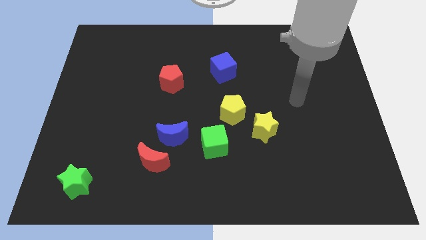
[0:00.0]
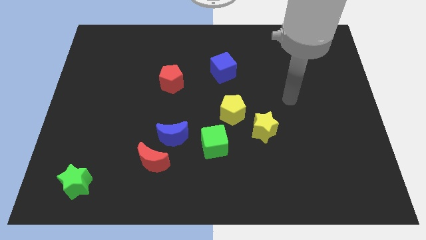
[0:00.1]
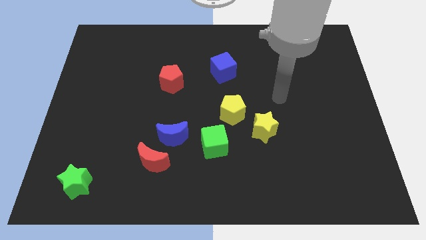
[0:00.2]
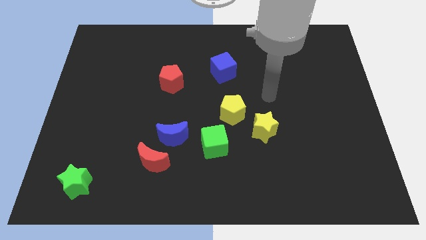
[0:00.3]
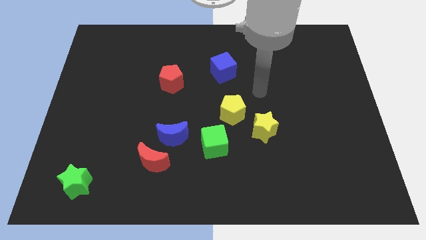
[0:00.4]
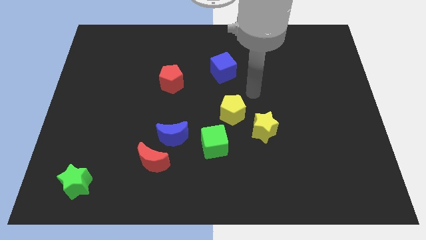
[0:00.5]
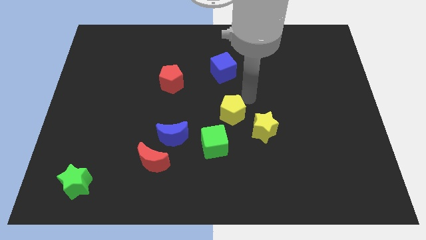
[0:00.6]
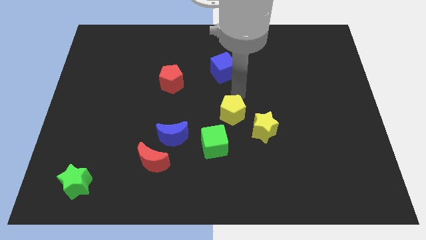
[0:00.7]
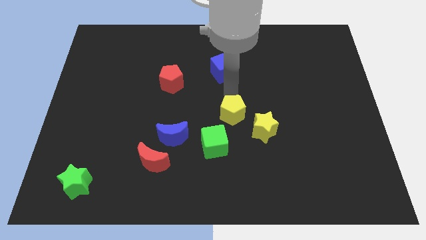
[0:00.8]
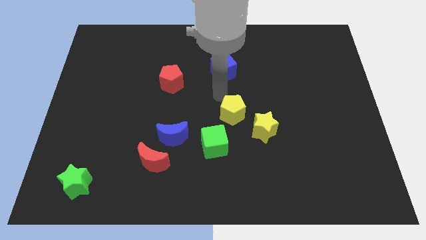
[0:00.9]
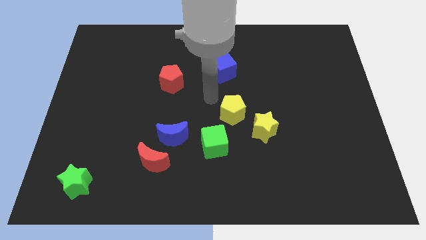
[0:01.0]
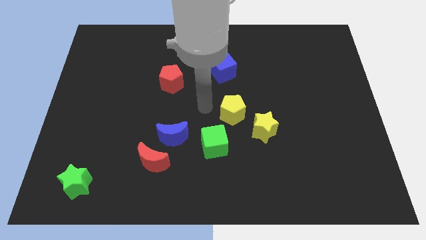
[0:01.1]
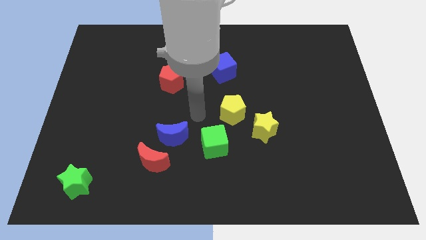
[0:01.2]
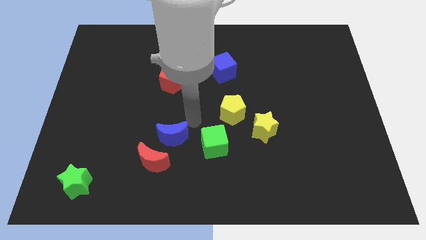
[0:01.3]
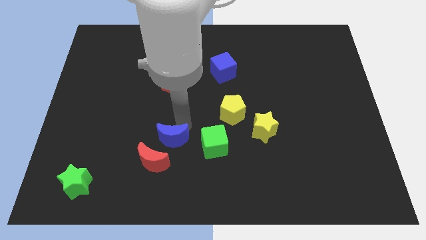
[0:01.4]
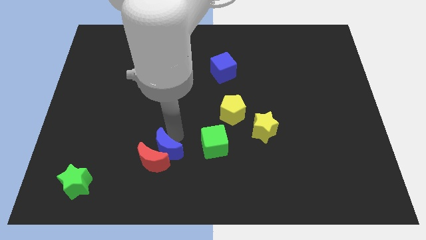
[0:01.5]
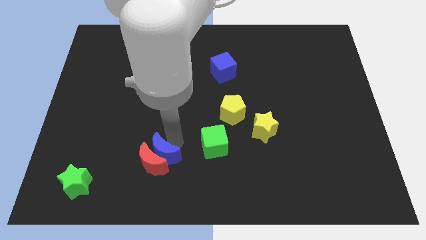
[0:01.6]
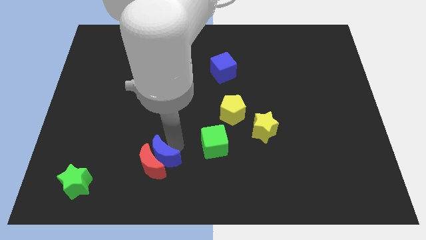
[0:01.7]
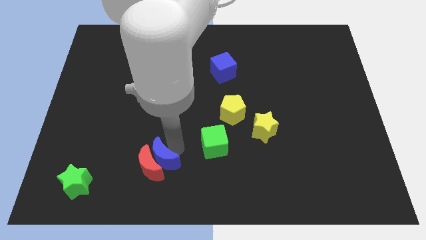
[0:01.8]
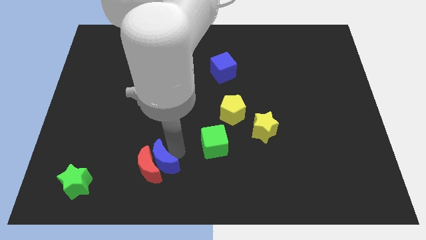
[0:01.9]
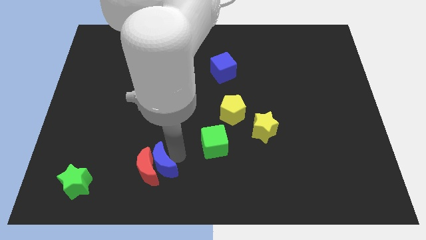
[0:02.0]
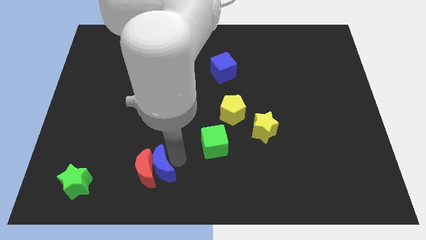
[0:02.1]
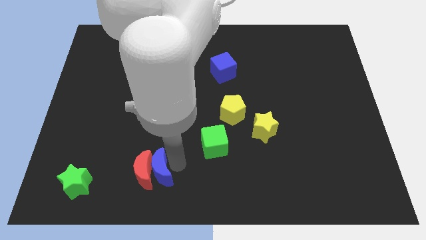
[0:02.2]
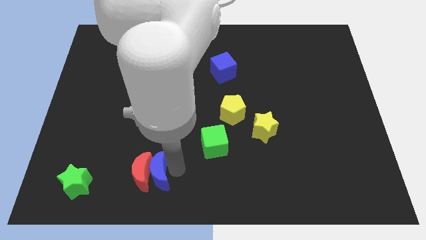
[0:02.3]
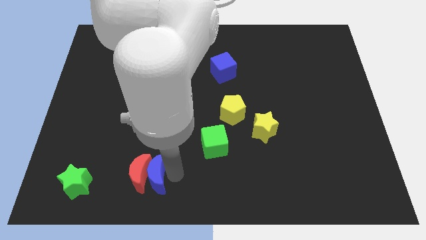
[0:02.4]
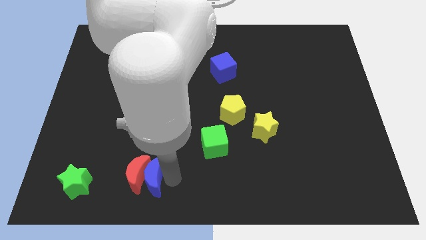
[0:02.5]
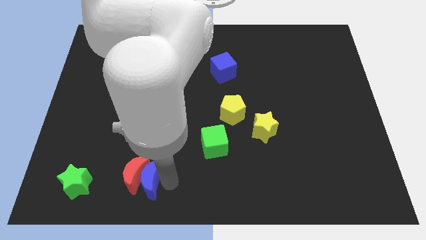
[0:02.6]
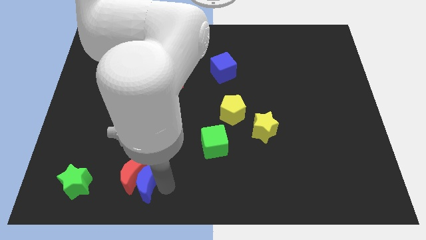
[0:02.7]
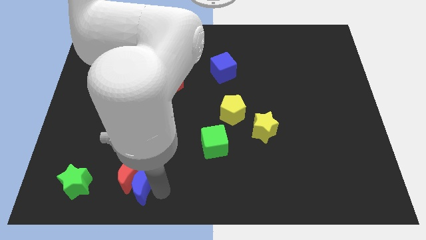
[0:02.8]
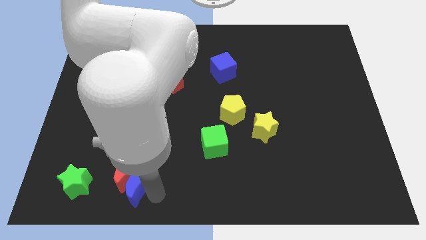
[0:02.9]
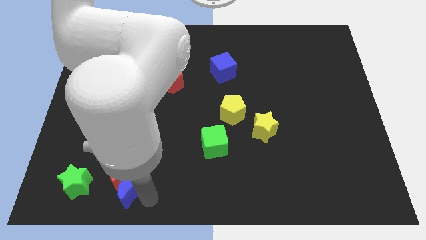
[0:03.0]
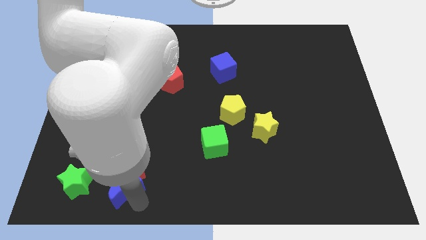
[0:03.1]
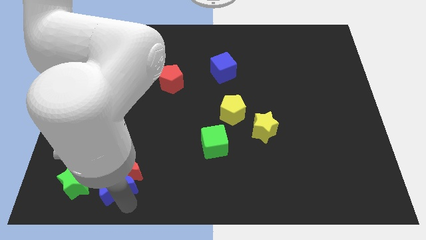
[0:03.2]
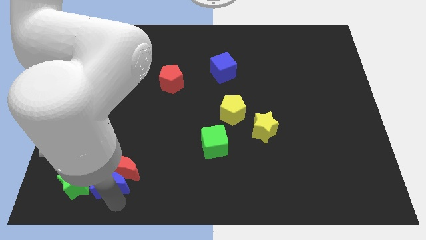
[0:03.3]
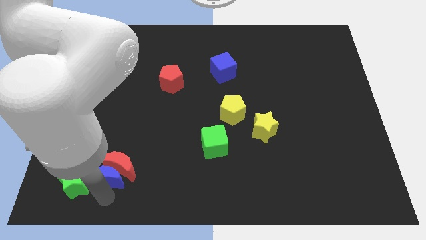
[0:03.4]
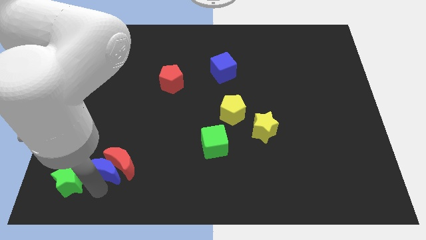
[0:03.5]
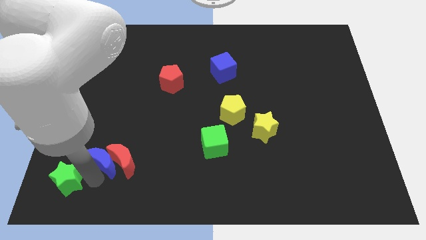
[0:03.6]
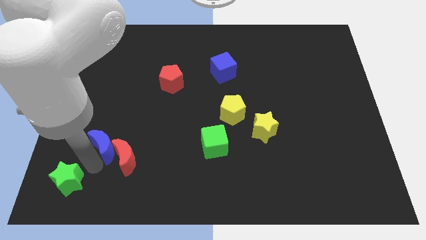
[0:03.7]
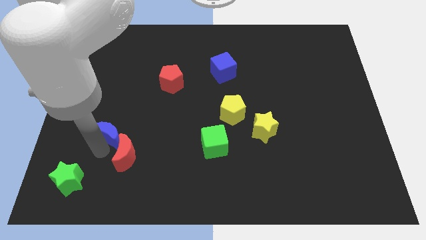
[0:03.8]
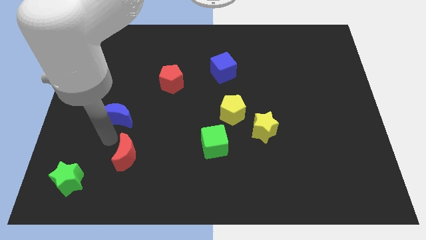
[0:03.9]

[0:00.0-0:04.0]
move the red moon away from the blue moon

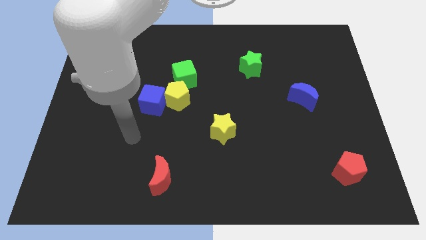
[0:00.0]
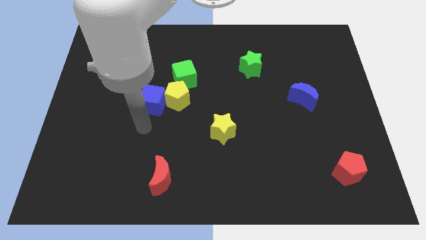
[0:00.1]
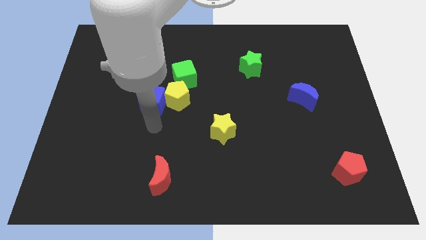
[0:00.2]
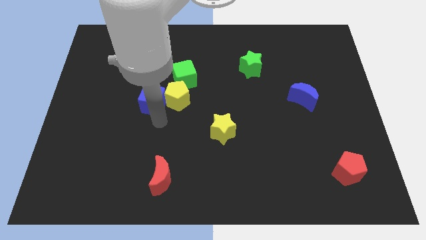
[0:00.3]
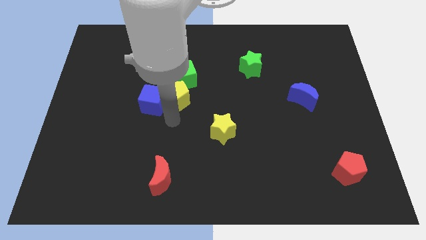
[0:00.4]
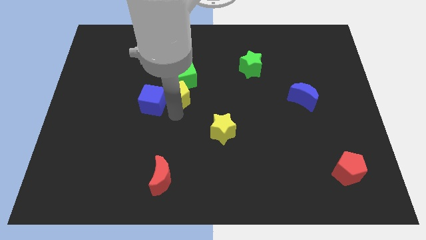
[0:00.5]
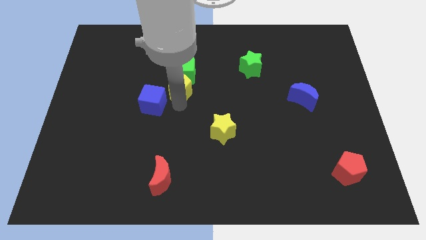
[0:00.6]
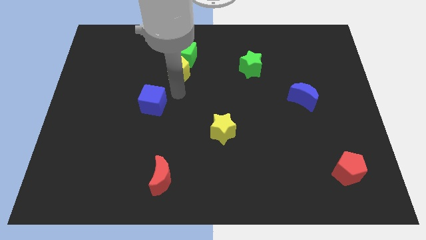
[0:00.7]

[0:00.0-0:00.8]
pull the blue cube apart from the yellow pentagon

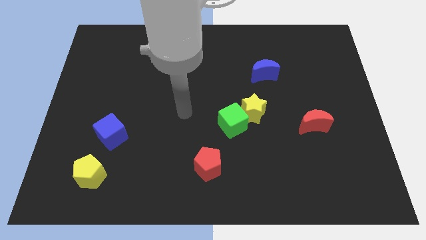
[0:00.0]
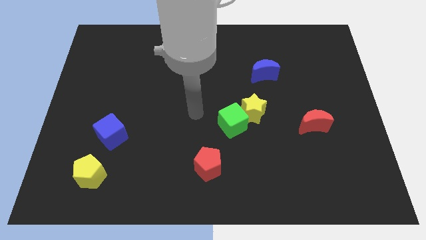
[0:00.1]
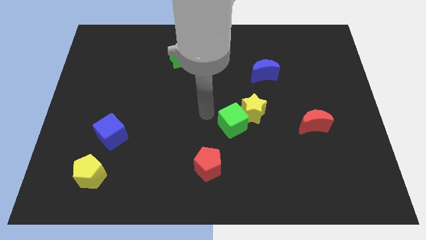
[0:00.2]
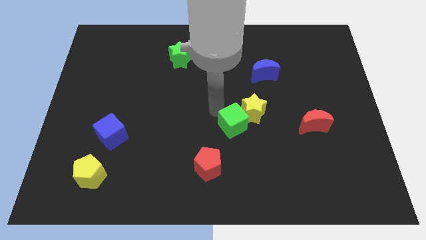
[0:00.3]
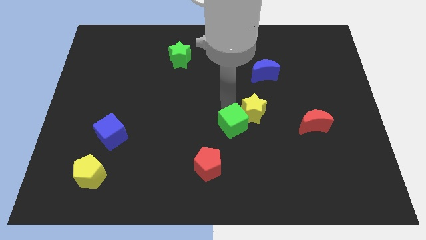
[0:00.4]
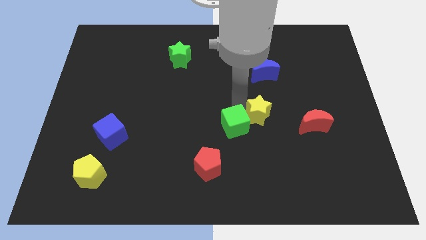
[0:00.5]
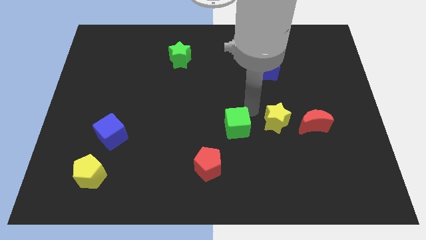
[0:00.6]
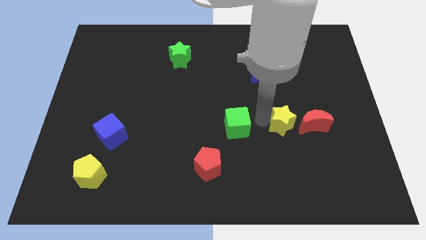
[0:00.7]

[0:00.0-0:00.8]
separate the green cube from the yellow star

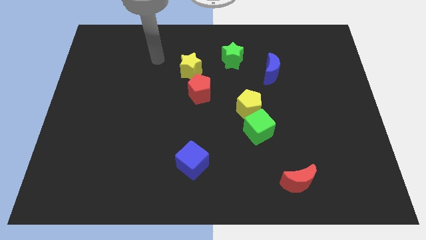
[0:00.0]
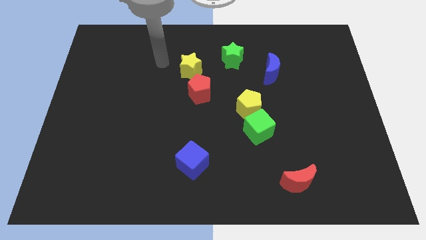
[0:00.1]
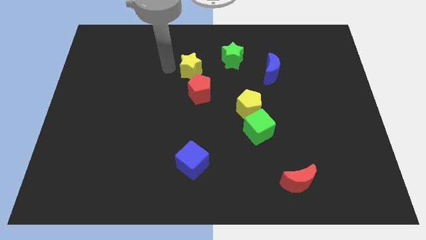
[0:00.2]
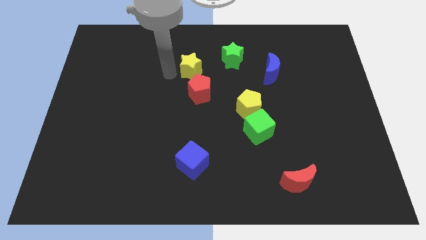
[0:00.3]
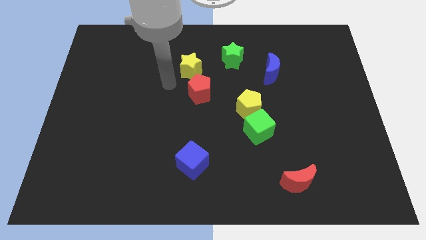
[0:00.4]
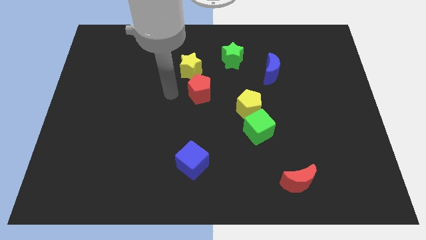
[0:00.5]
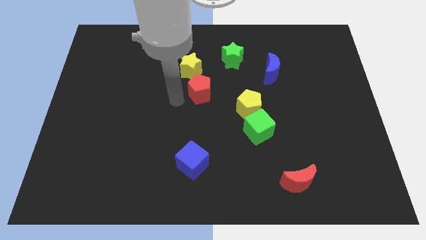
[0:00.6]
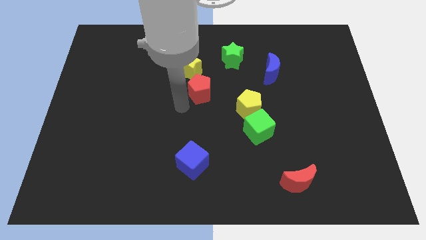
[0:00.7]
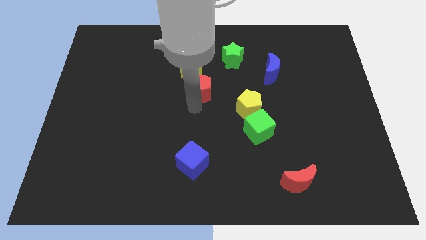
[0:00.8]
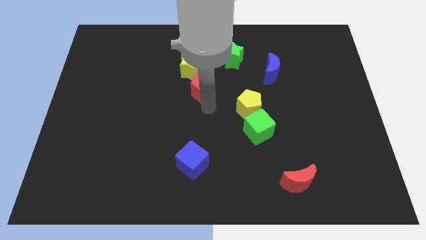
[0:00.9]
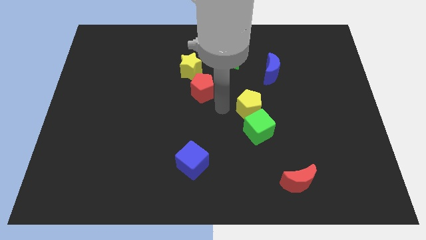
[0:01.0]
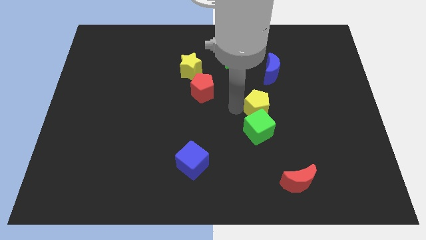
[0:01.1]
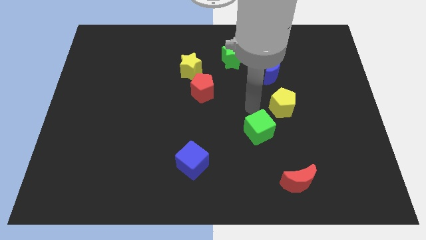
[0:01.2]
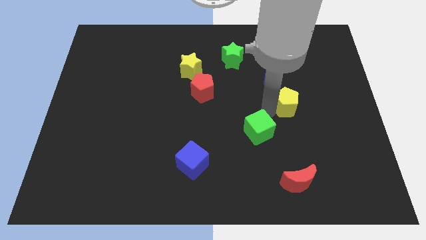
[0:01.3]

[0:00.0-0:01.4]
pull the green cube apart from the yellow pentagon

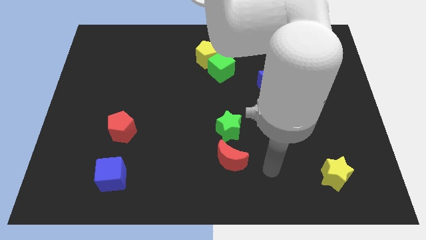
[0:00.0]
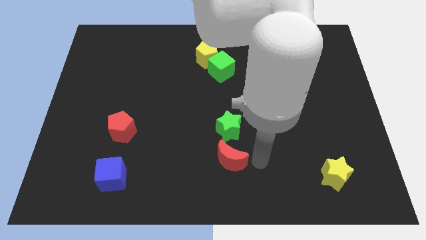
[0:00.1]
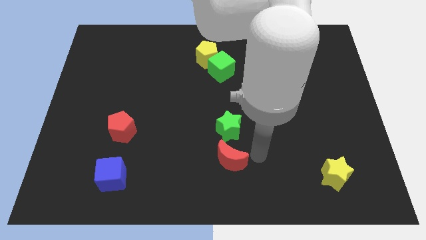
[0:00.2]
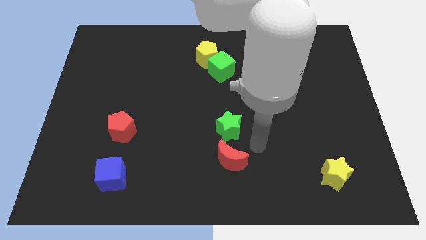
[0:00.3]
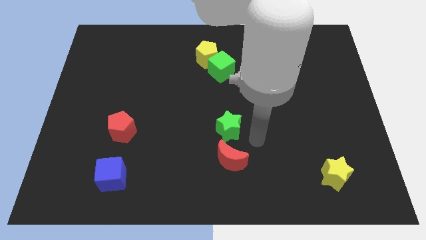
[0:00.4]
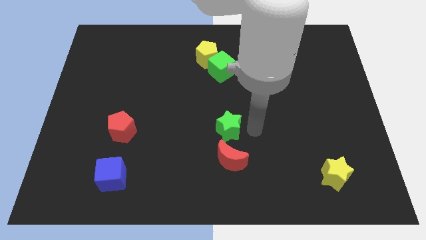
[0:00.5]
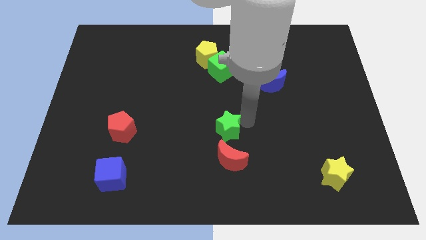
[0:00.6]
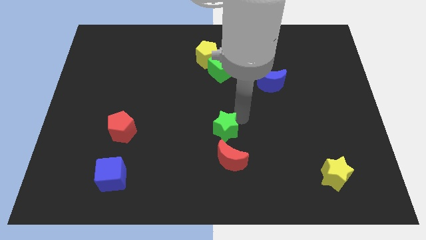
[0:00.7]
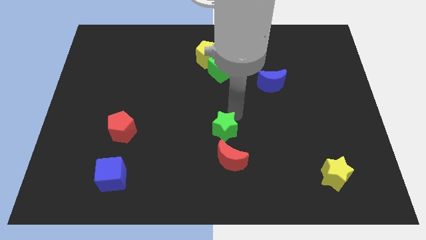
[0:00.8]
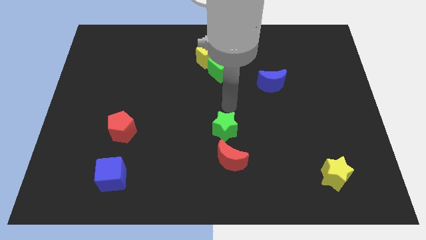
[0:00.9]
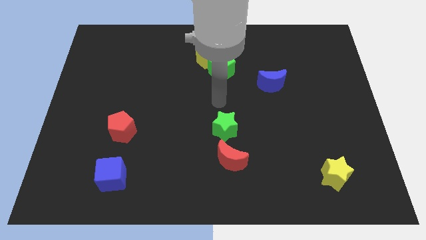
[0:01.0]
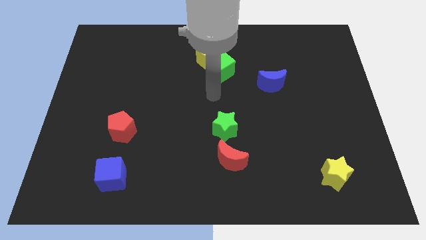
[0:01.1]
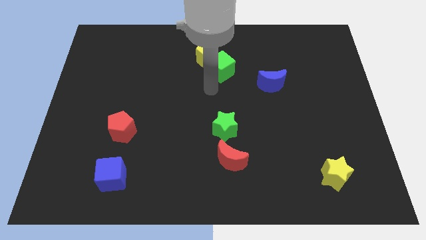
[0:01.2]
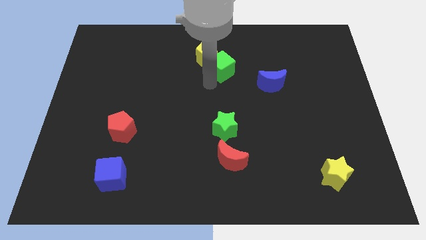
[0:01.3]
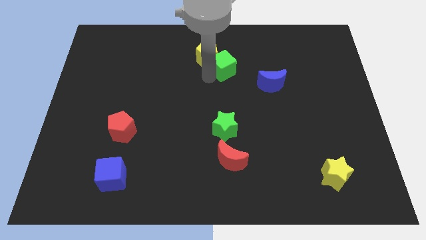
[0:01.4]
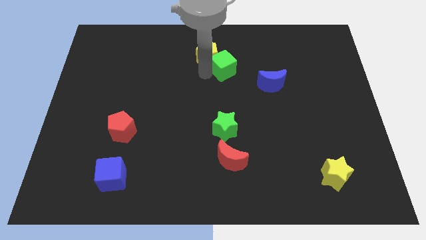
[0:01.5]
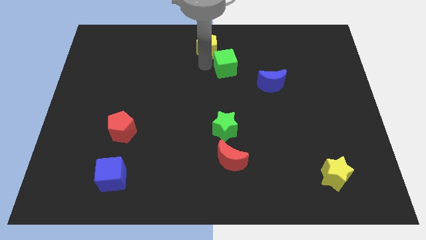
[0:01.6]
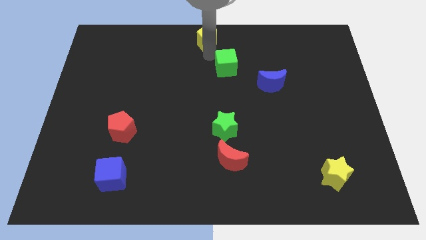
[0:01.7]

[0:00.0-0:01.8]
move the green cube away from the yellow pentagon

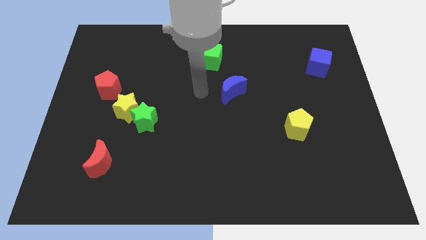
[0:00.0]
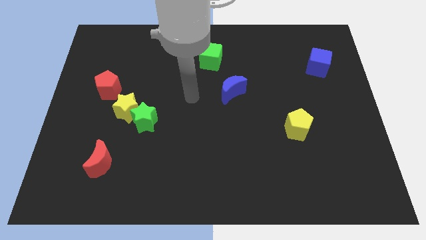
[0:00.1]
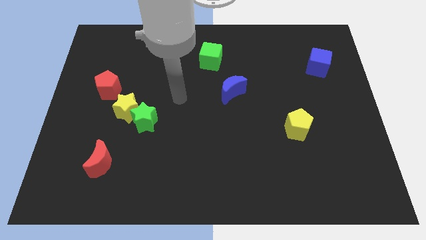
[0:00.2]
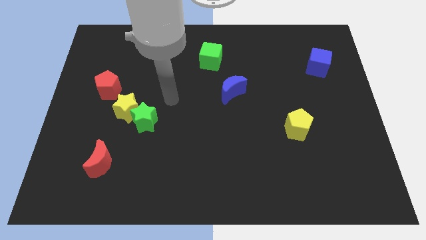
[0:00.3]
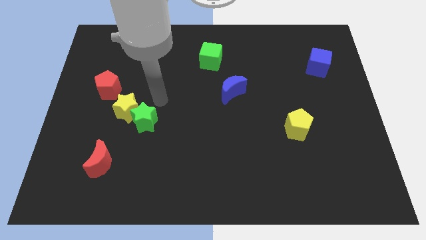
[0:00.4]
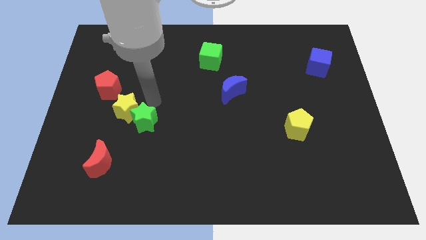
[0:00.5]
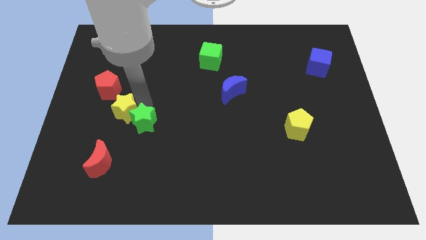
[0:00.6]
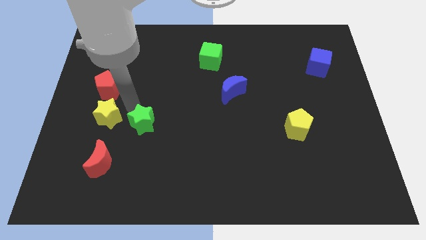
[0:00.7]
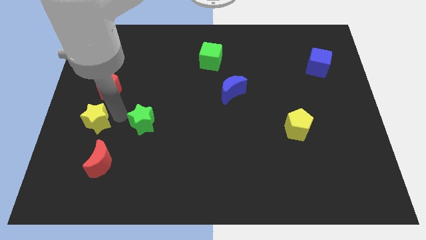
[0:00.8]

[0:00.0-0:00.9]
separate the green star from the yellow star
